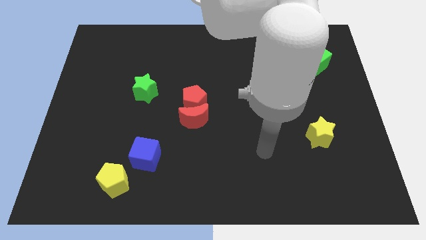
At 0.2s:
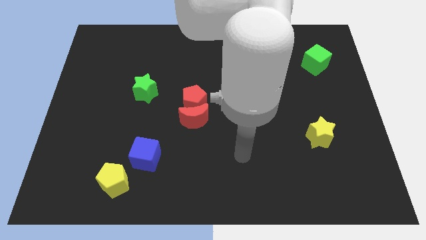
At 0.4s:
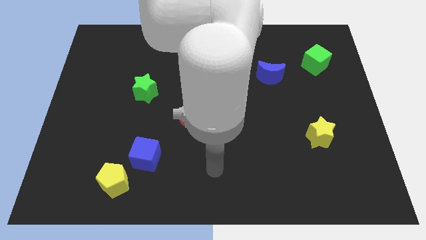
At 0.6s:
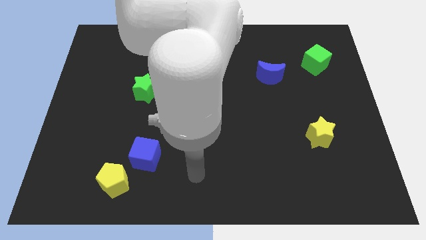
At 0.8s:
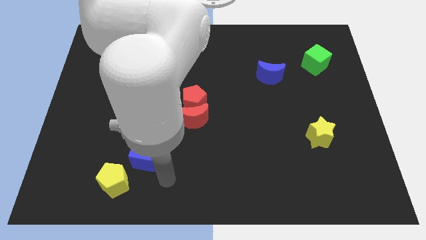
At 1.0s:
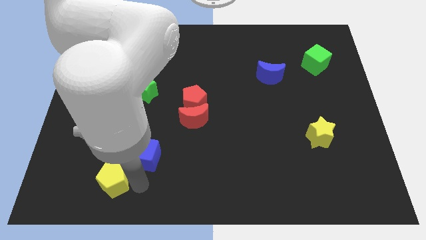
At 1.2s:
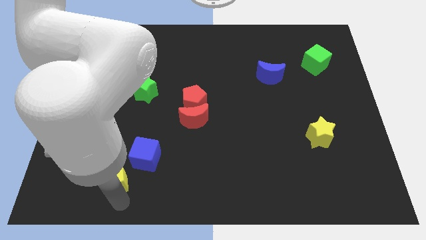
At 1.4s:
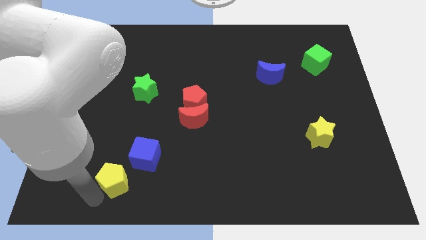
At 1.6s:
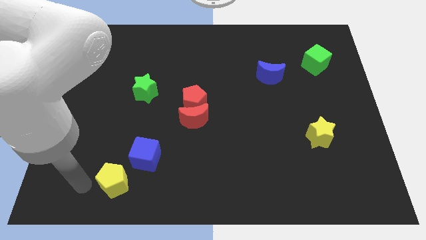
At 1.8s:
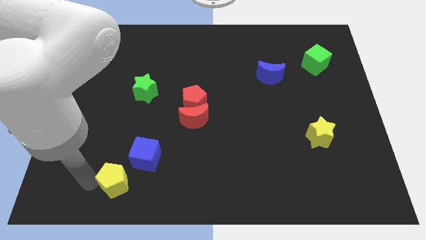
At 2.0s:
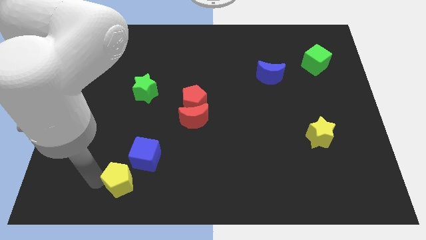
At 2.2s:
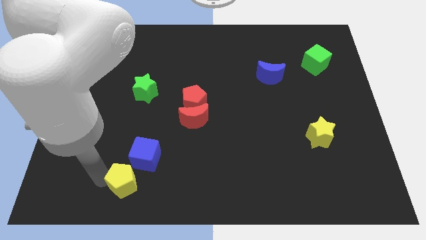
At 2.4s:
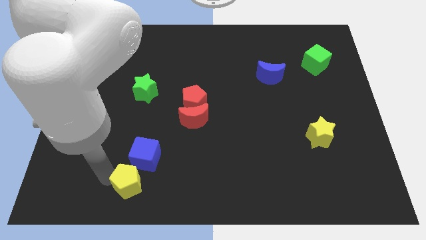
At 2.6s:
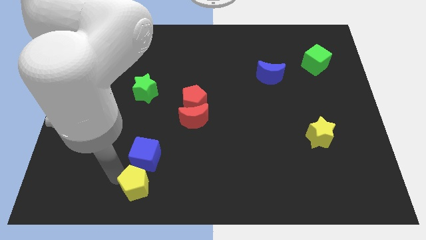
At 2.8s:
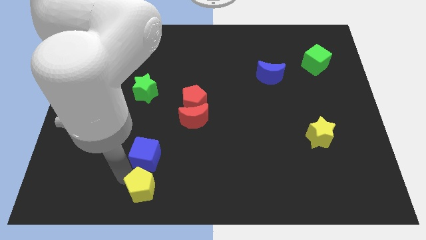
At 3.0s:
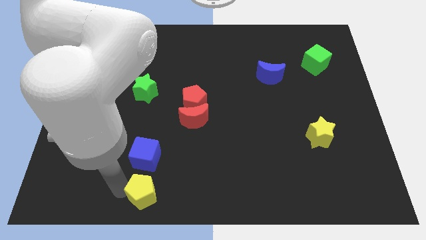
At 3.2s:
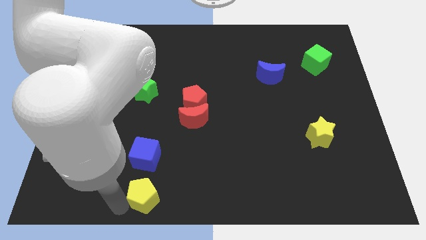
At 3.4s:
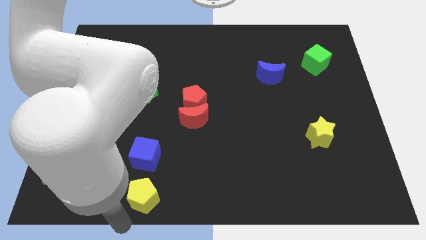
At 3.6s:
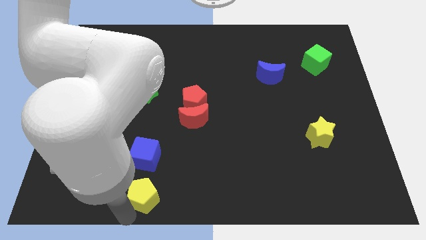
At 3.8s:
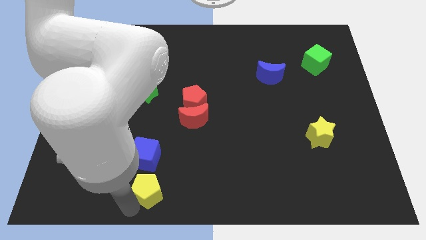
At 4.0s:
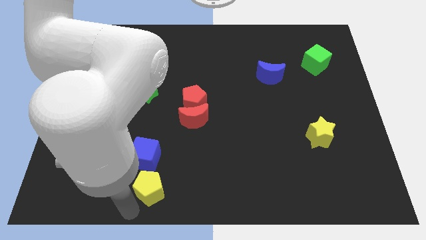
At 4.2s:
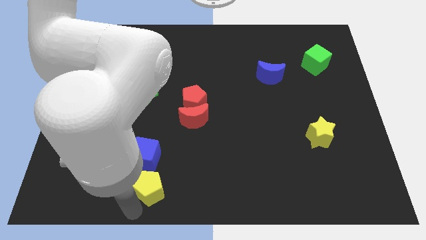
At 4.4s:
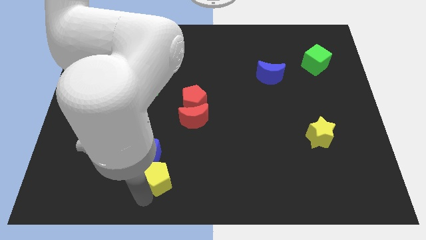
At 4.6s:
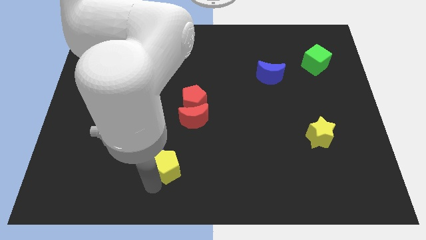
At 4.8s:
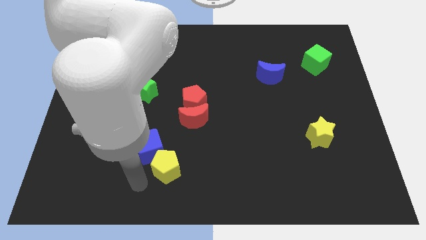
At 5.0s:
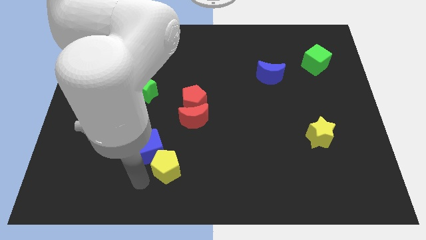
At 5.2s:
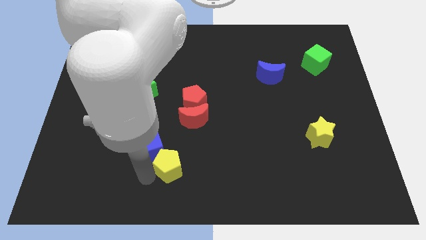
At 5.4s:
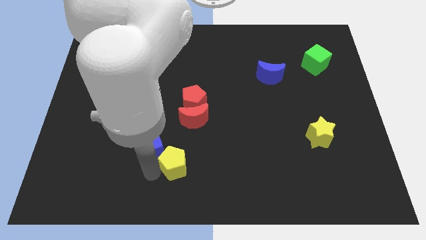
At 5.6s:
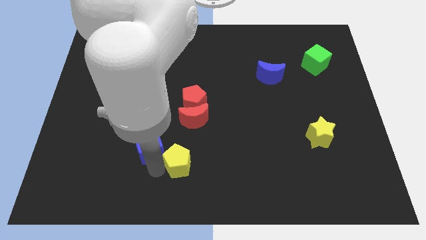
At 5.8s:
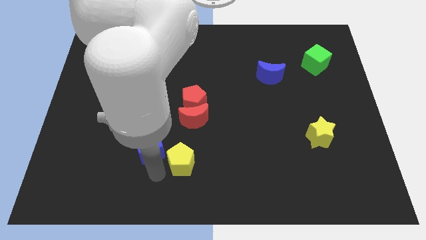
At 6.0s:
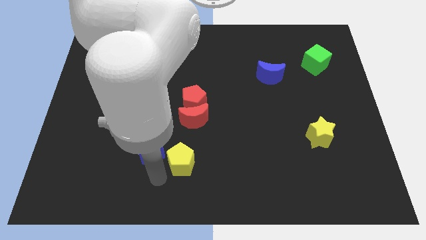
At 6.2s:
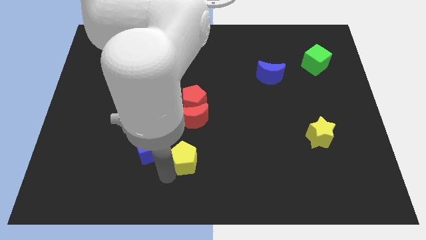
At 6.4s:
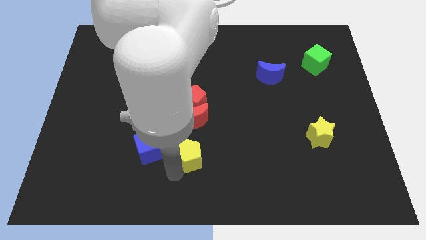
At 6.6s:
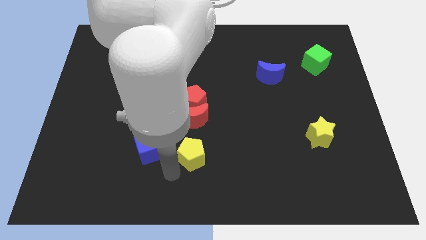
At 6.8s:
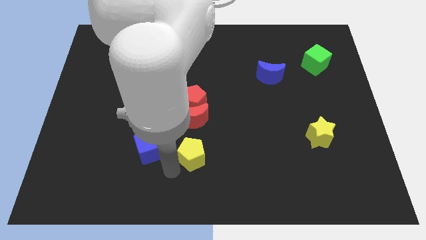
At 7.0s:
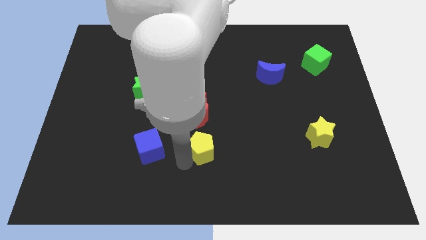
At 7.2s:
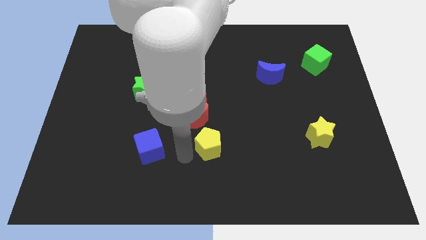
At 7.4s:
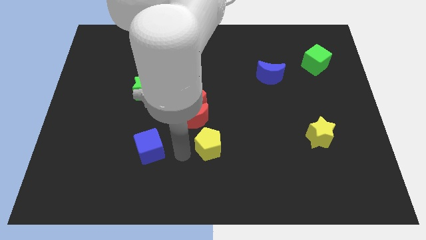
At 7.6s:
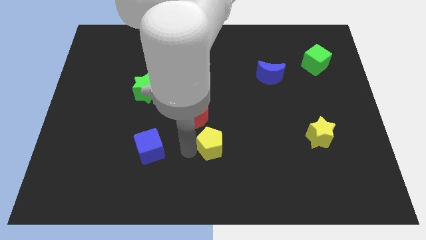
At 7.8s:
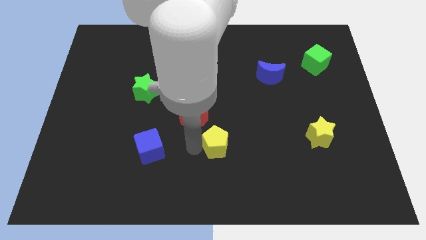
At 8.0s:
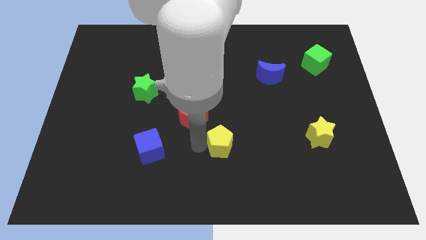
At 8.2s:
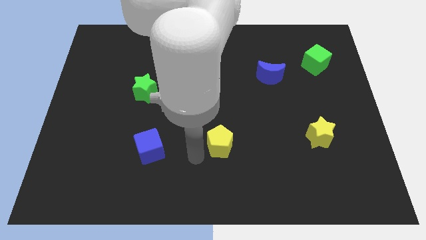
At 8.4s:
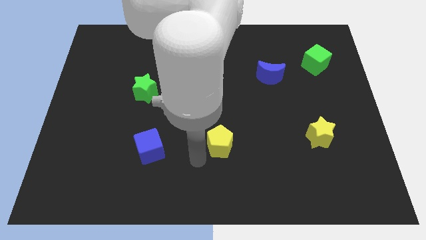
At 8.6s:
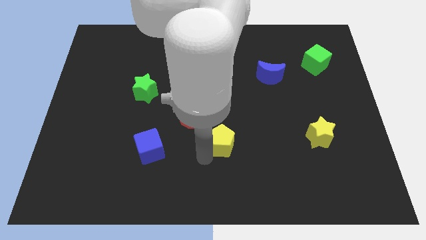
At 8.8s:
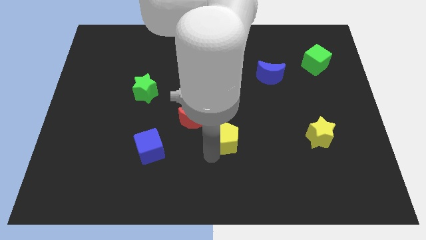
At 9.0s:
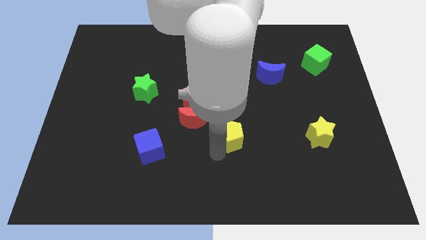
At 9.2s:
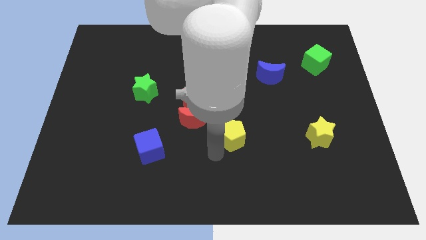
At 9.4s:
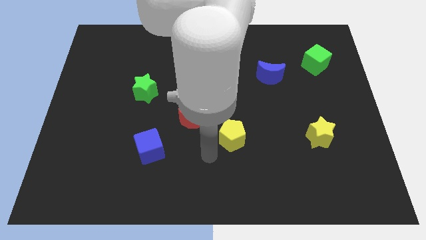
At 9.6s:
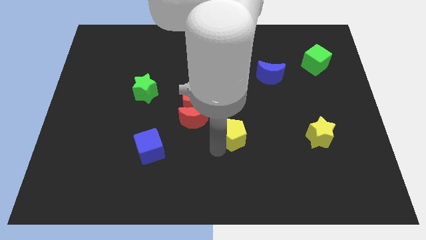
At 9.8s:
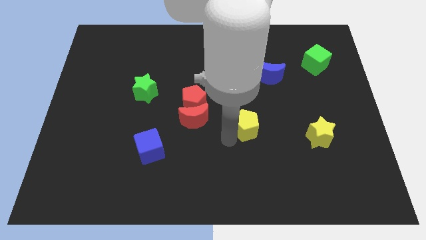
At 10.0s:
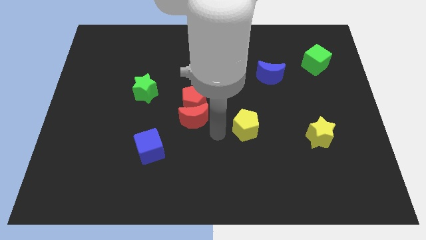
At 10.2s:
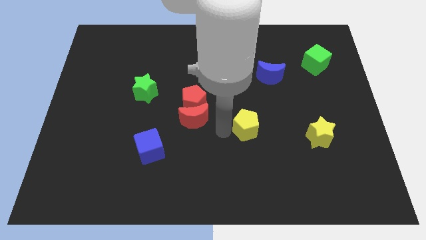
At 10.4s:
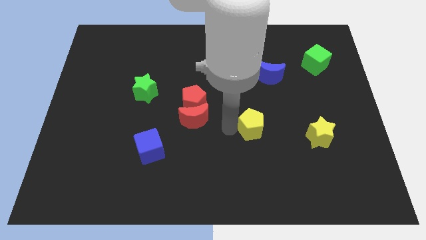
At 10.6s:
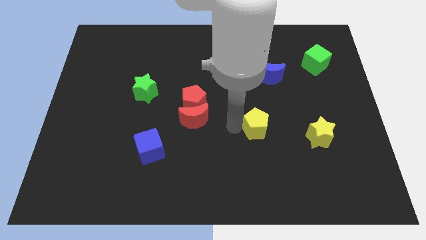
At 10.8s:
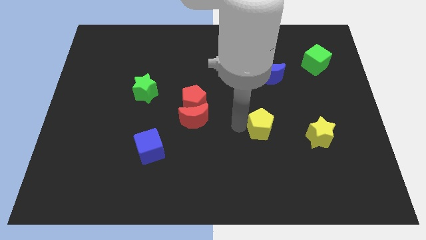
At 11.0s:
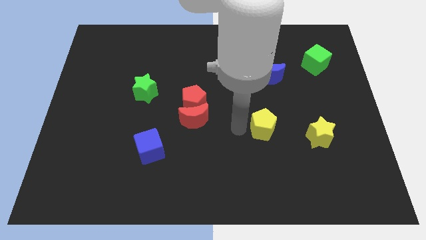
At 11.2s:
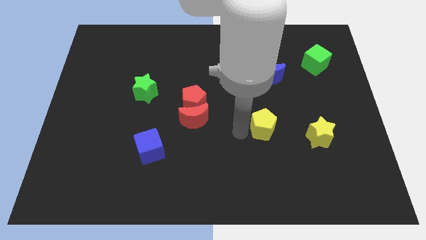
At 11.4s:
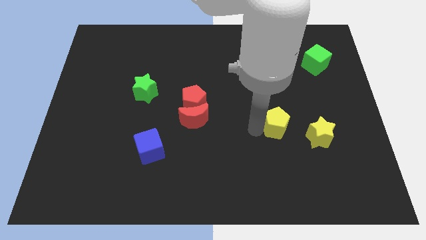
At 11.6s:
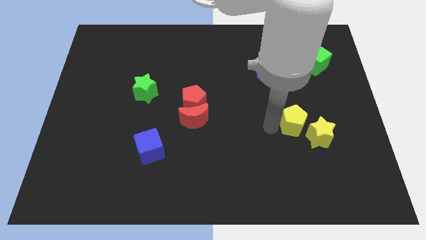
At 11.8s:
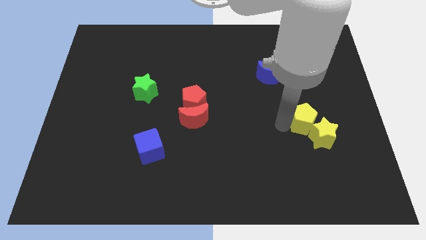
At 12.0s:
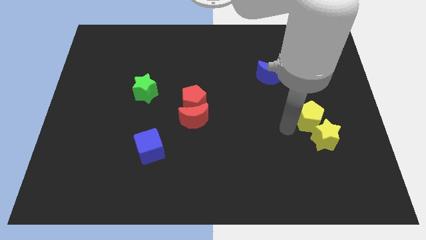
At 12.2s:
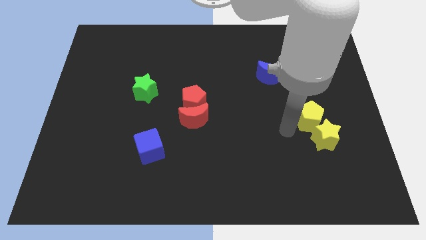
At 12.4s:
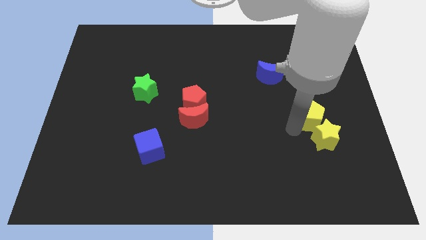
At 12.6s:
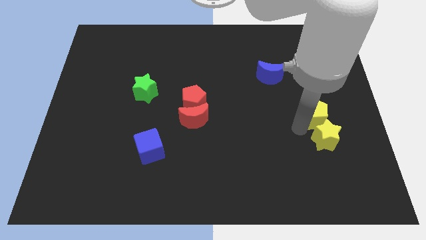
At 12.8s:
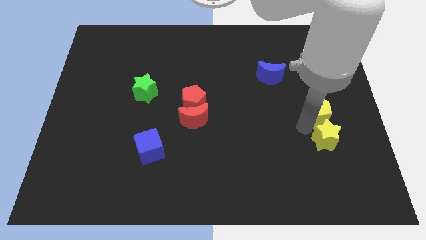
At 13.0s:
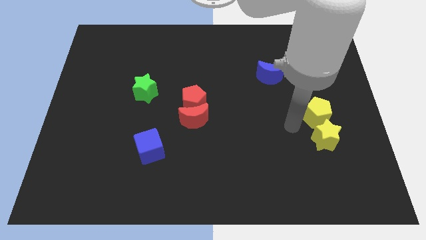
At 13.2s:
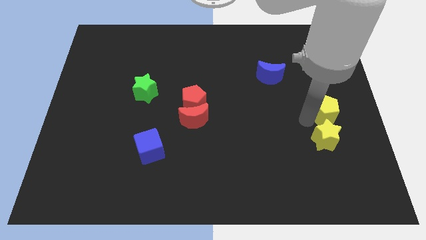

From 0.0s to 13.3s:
push the yellow pentagon to the right side

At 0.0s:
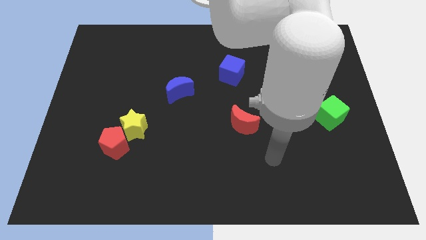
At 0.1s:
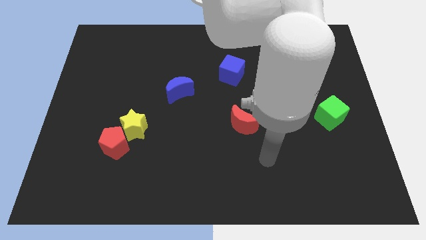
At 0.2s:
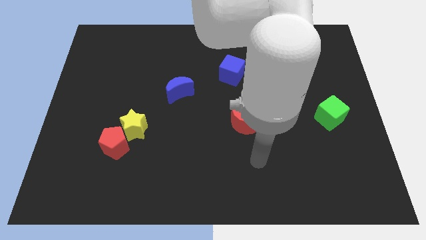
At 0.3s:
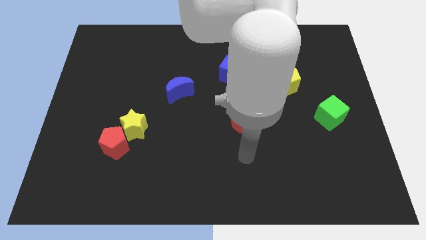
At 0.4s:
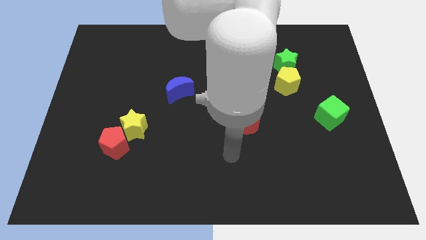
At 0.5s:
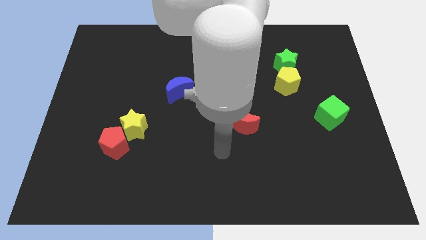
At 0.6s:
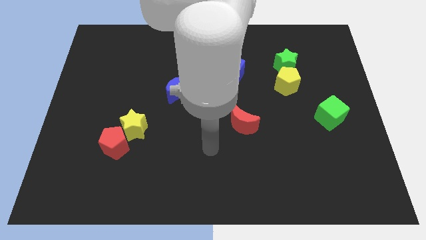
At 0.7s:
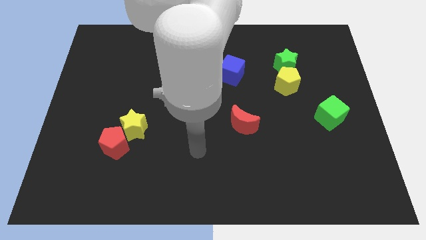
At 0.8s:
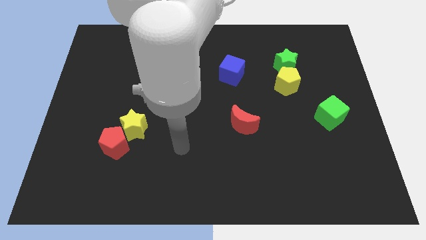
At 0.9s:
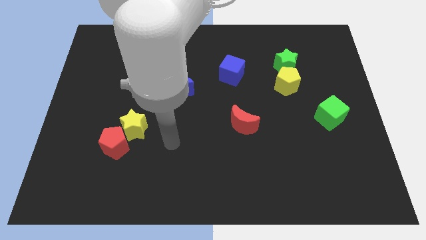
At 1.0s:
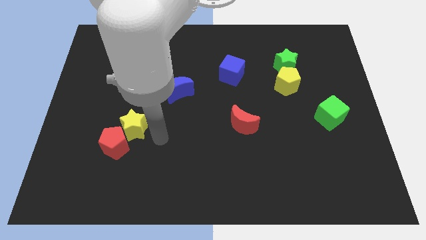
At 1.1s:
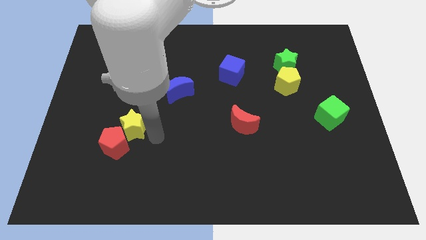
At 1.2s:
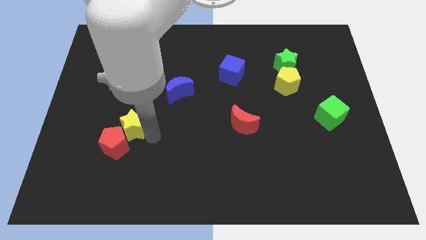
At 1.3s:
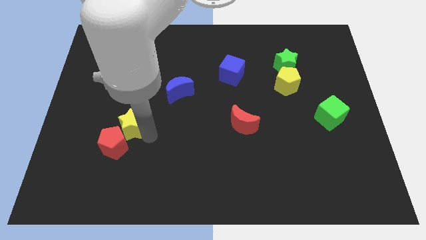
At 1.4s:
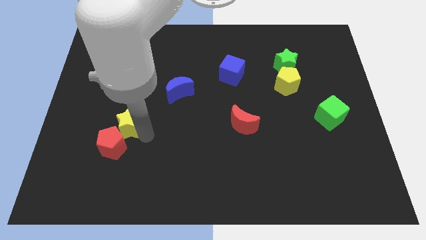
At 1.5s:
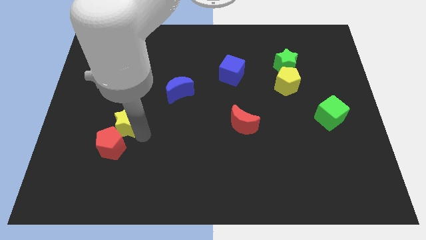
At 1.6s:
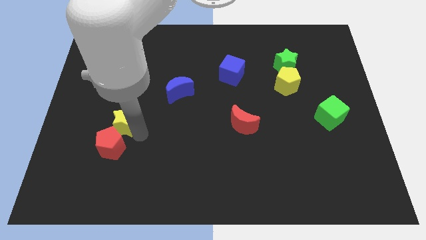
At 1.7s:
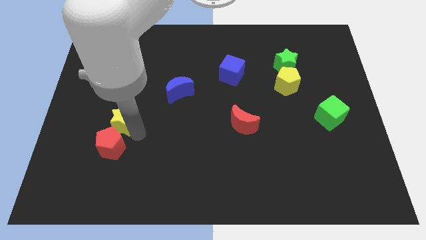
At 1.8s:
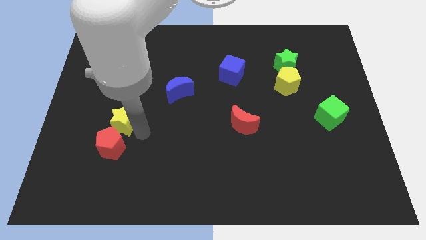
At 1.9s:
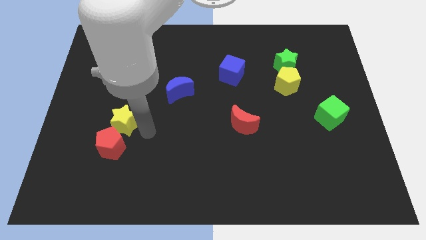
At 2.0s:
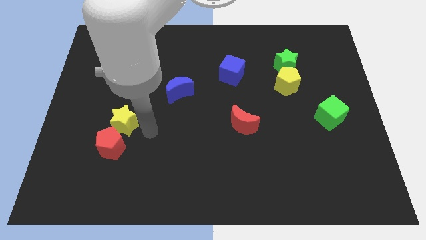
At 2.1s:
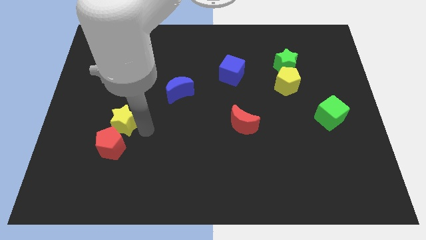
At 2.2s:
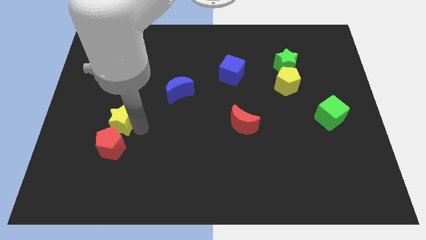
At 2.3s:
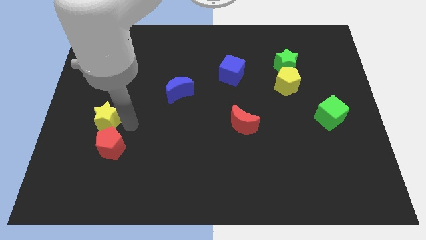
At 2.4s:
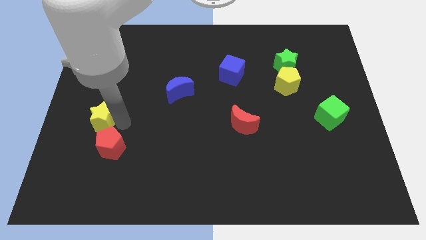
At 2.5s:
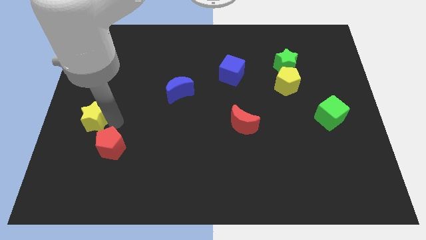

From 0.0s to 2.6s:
slide the yellow star to the left side of the board
